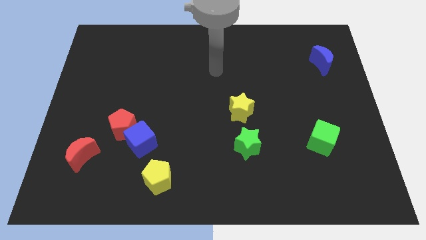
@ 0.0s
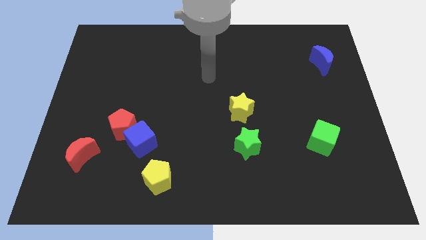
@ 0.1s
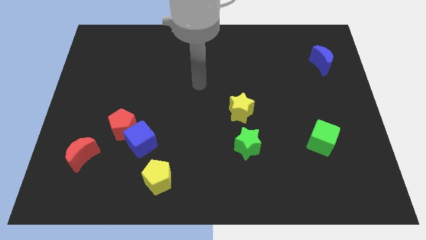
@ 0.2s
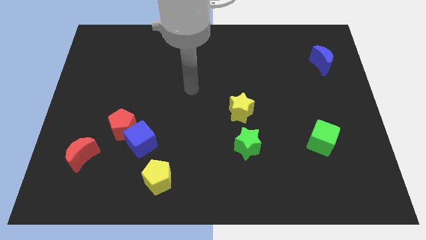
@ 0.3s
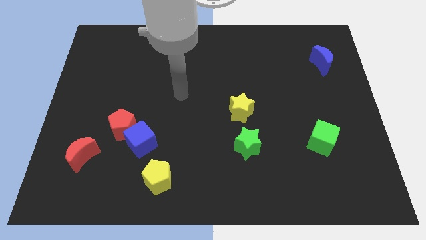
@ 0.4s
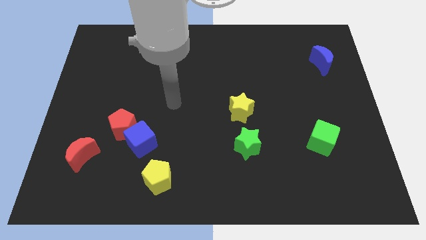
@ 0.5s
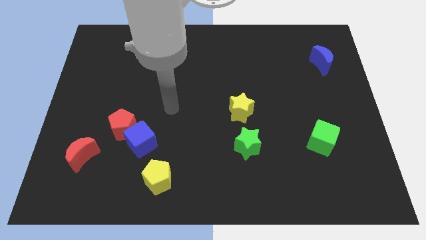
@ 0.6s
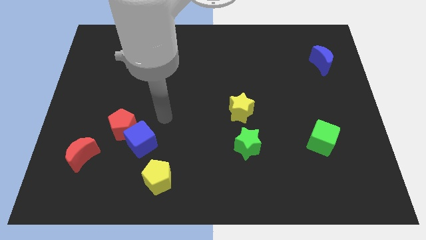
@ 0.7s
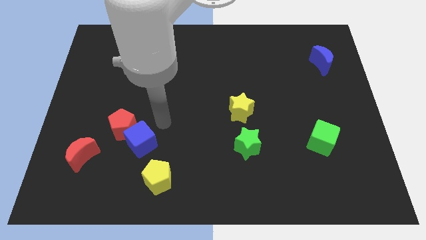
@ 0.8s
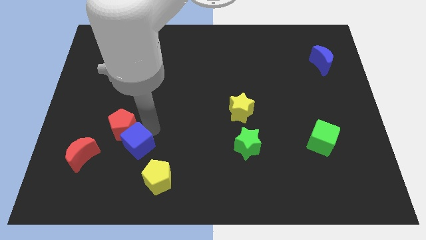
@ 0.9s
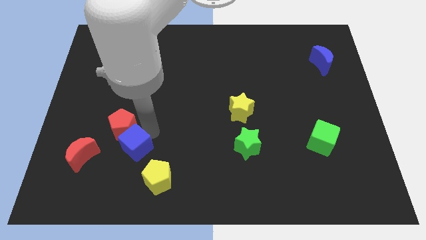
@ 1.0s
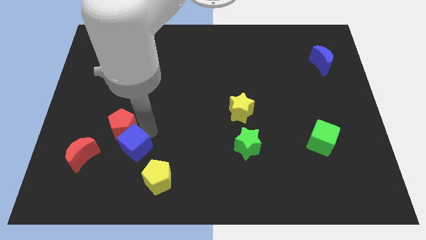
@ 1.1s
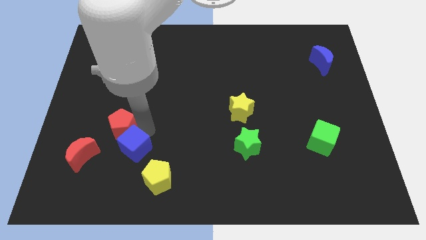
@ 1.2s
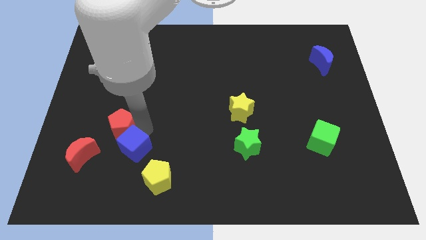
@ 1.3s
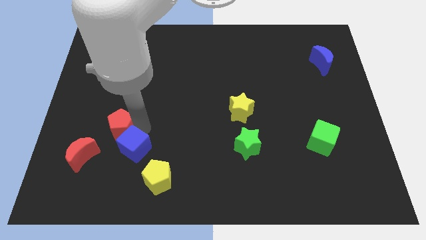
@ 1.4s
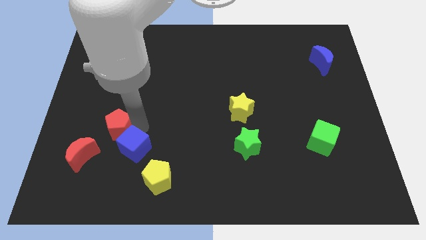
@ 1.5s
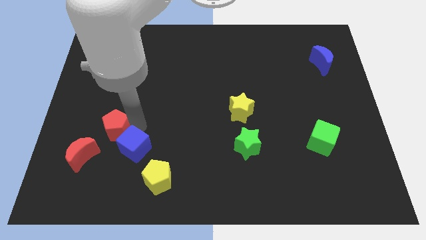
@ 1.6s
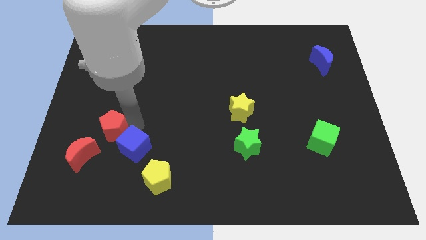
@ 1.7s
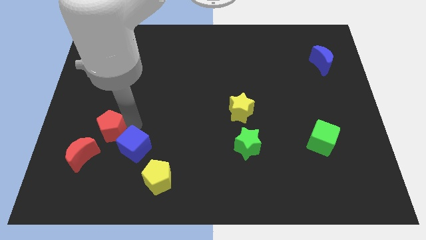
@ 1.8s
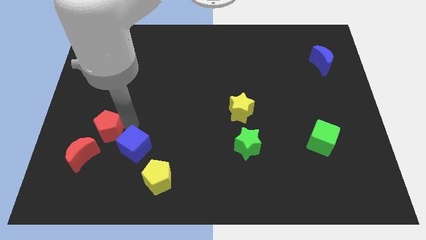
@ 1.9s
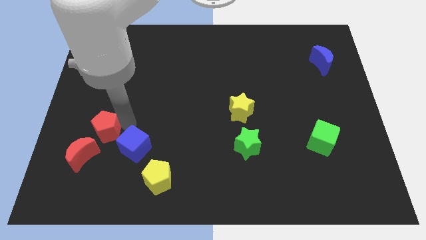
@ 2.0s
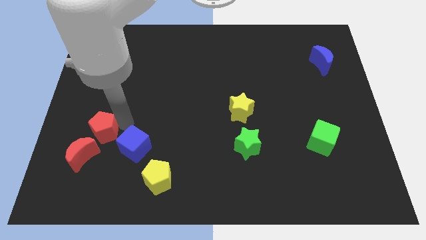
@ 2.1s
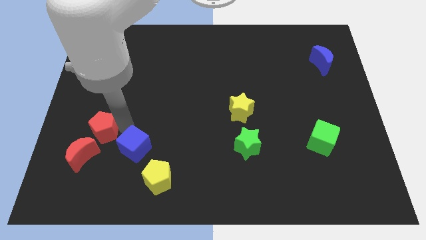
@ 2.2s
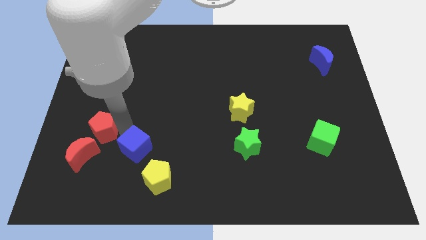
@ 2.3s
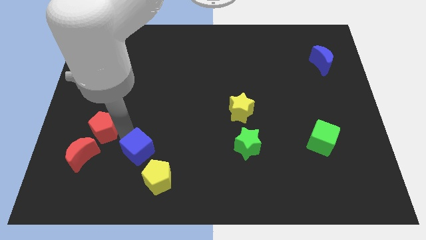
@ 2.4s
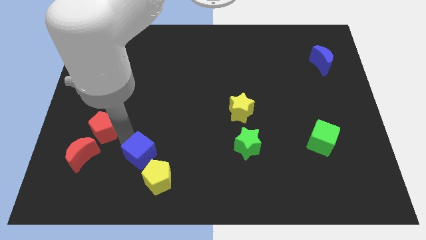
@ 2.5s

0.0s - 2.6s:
pull the red pentagon apart from the blue cube

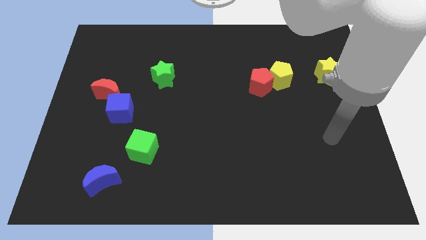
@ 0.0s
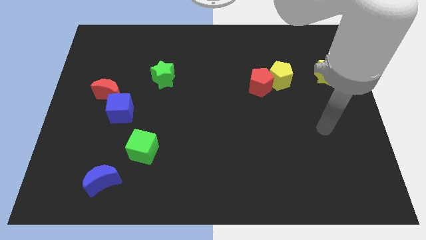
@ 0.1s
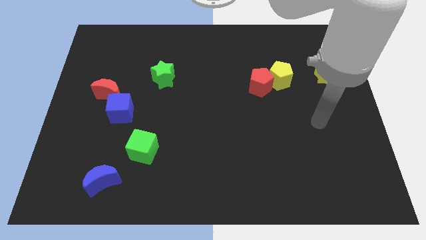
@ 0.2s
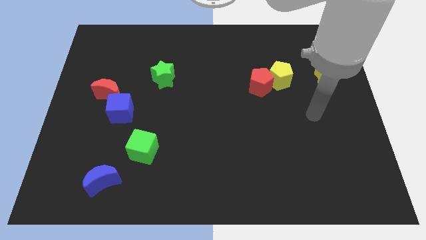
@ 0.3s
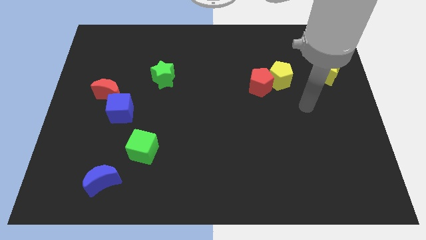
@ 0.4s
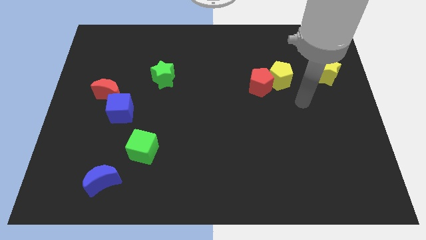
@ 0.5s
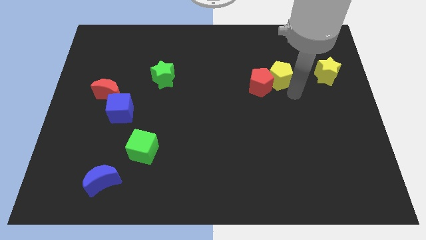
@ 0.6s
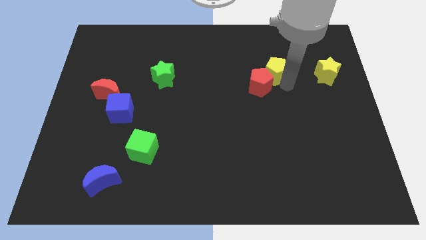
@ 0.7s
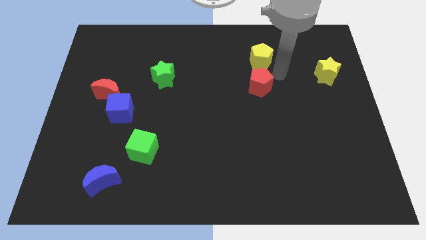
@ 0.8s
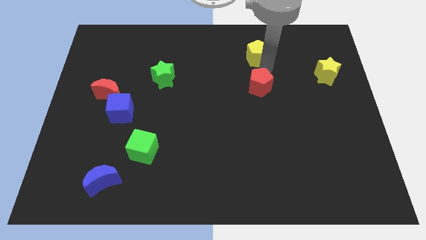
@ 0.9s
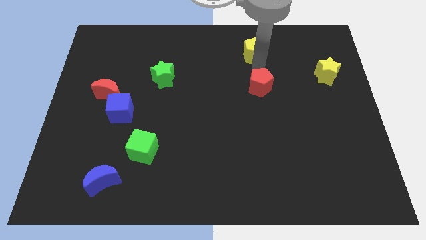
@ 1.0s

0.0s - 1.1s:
separate the red pentagon from the yellow pentagon

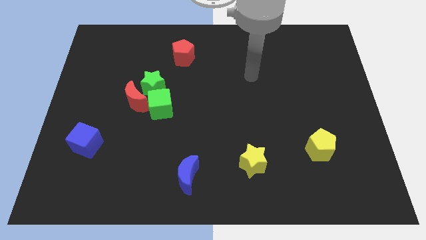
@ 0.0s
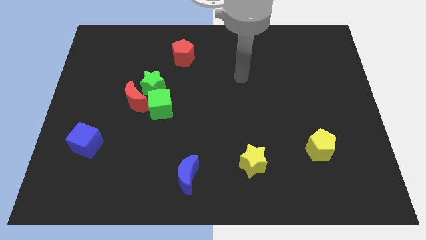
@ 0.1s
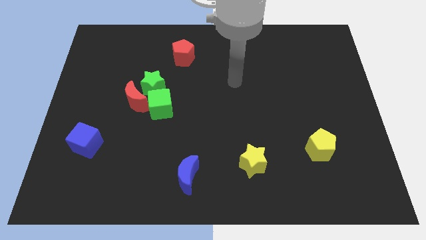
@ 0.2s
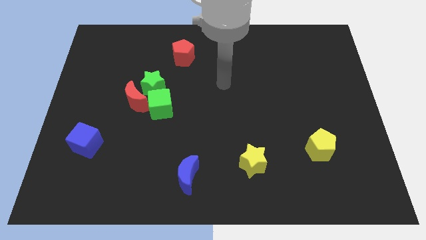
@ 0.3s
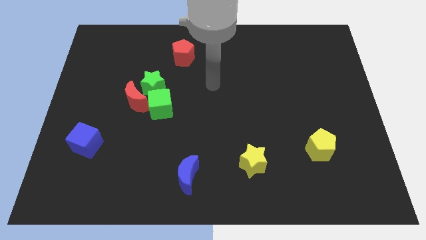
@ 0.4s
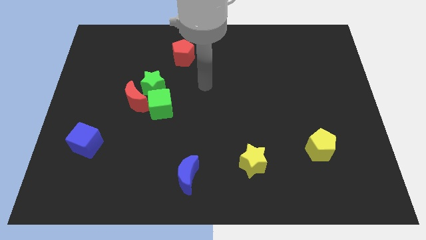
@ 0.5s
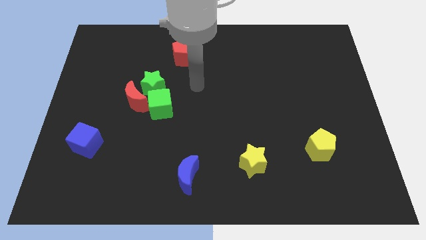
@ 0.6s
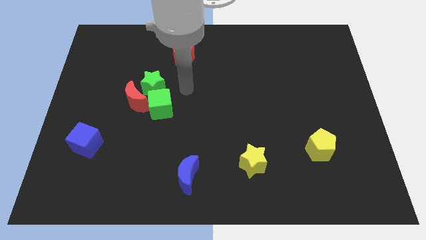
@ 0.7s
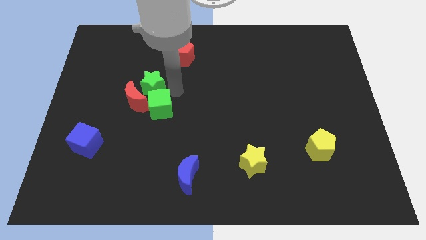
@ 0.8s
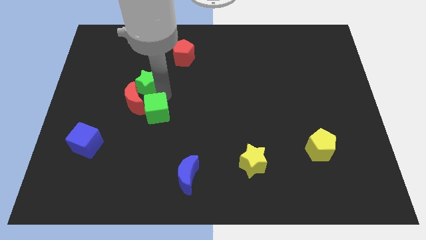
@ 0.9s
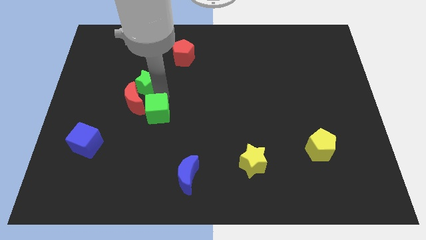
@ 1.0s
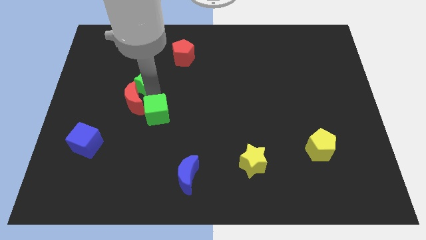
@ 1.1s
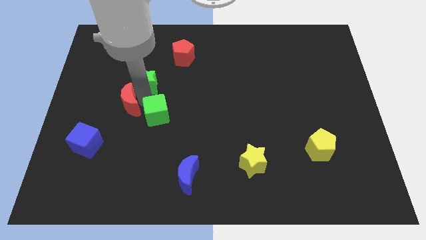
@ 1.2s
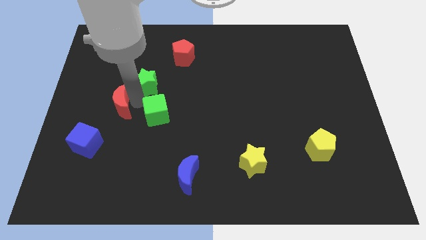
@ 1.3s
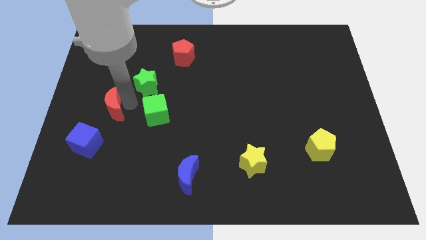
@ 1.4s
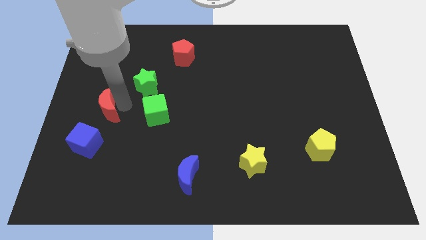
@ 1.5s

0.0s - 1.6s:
separate the red moon from the green star and green cube

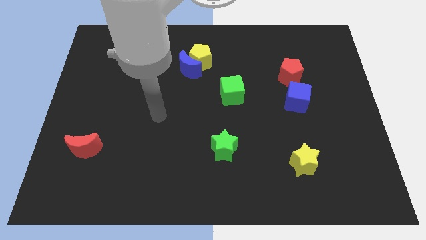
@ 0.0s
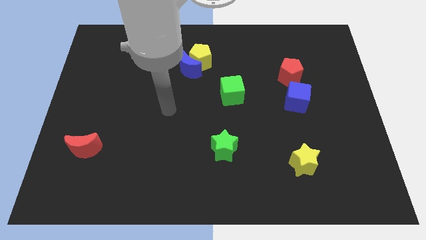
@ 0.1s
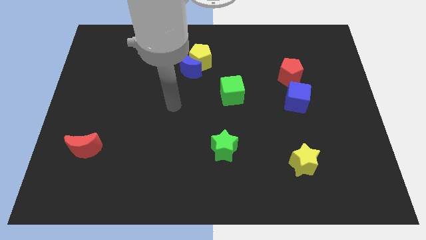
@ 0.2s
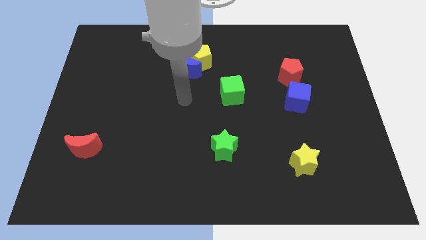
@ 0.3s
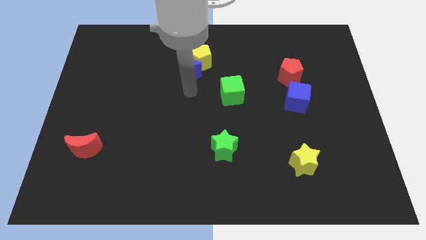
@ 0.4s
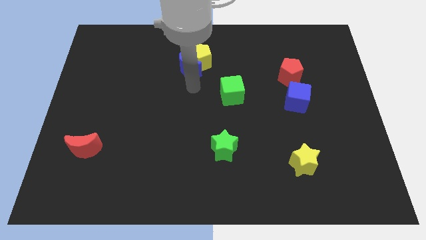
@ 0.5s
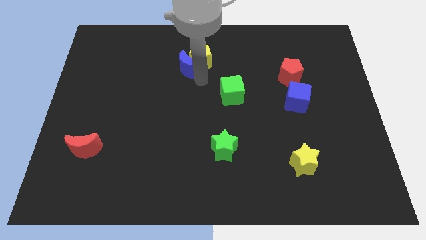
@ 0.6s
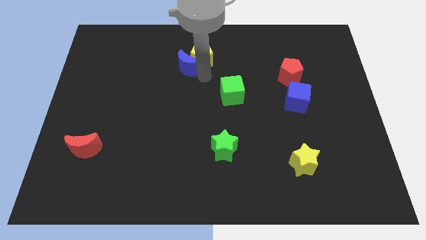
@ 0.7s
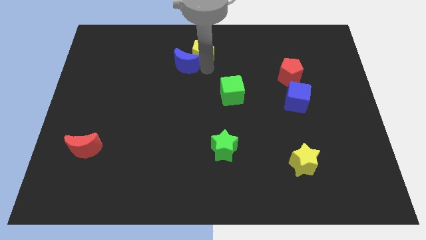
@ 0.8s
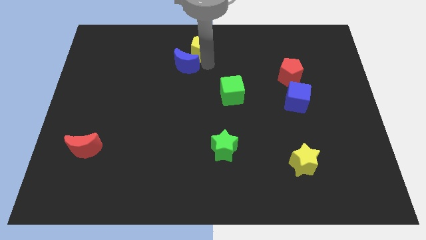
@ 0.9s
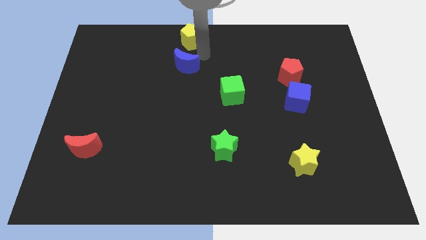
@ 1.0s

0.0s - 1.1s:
pull the blue moon apart from the yellow pentagon

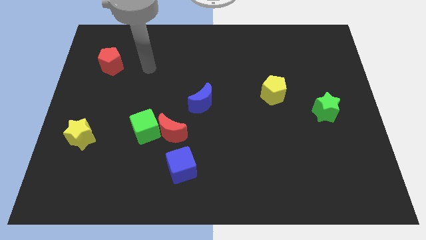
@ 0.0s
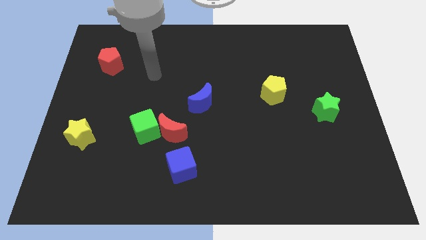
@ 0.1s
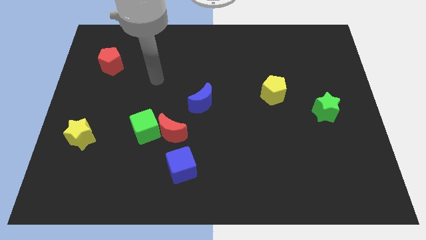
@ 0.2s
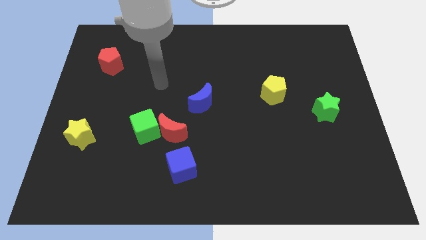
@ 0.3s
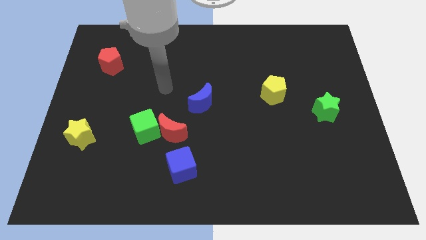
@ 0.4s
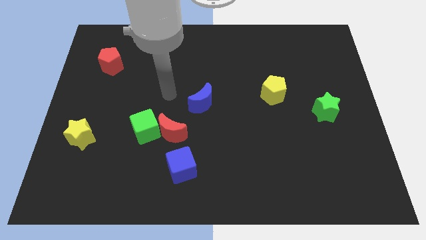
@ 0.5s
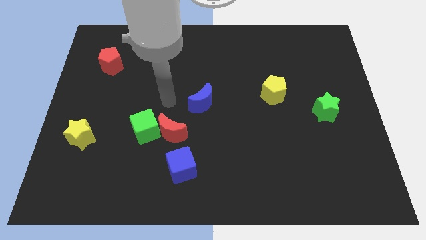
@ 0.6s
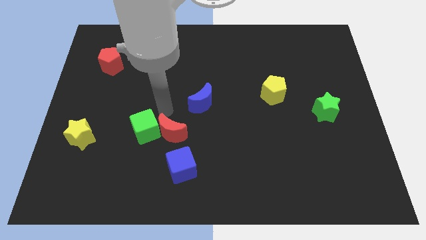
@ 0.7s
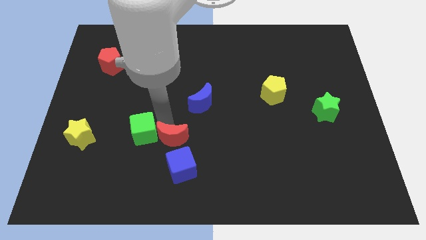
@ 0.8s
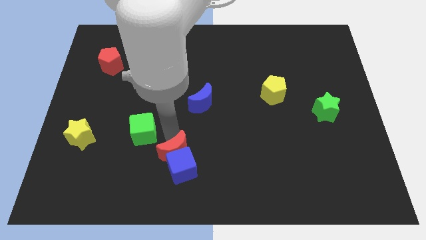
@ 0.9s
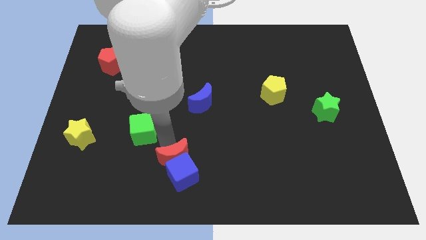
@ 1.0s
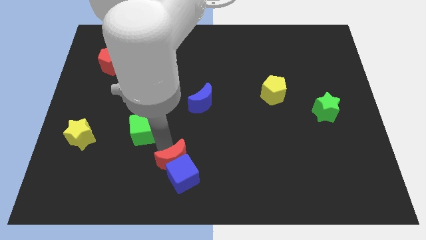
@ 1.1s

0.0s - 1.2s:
separate the green cube from the red moon

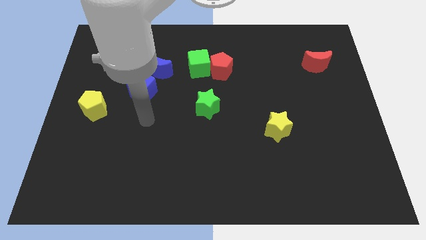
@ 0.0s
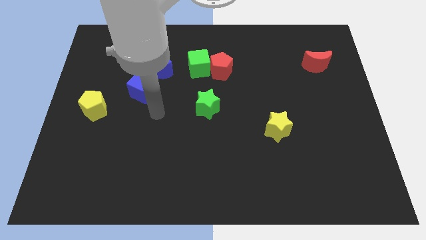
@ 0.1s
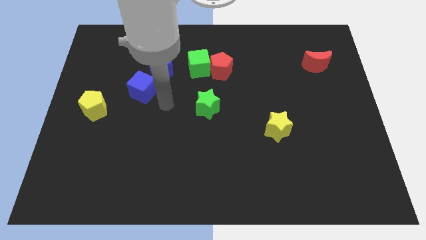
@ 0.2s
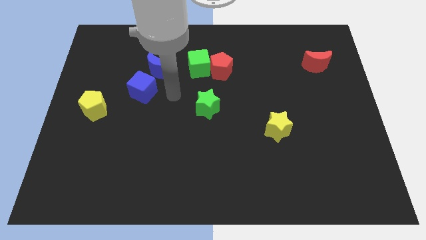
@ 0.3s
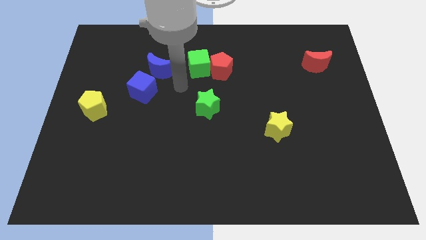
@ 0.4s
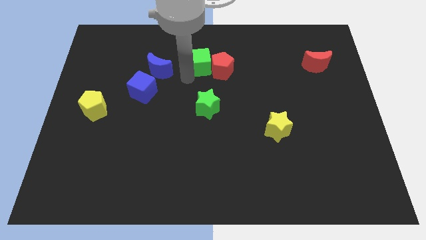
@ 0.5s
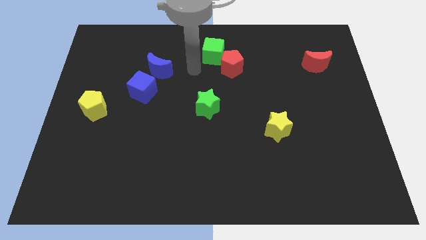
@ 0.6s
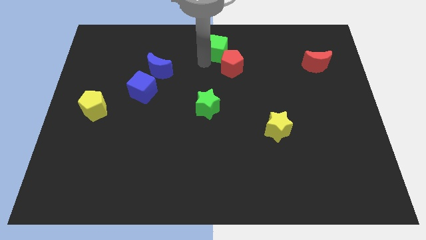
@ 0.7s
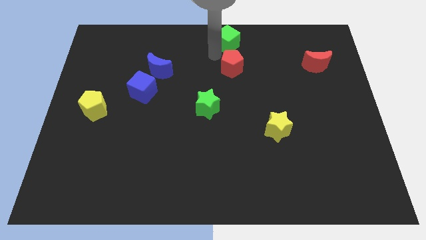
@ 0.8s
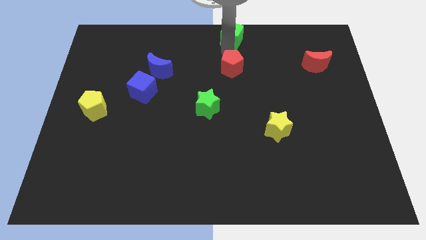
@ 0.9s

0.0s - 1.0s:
separate the red pentagon from the green cube

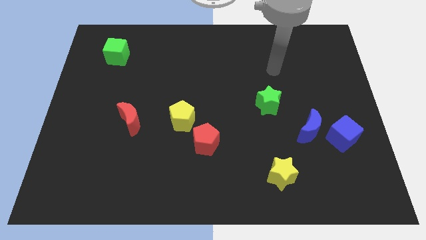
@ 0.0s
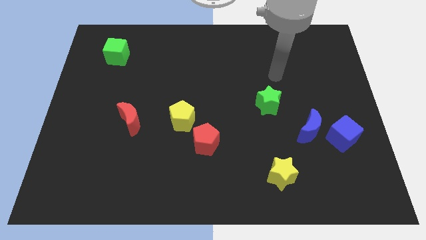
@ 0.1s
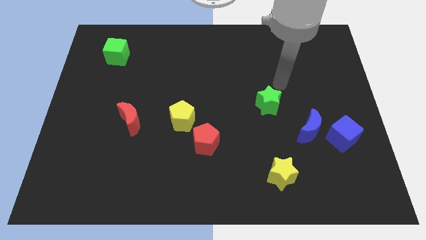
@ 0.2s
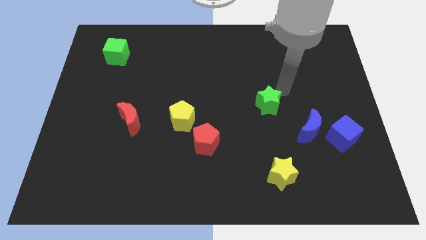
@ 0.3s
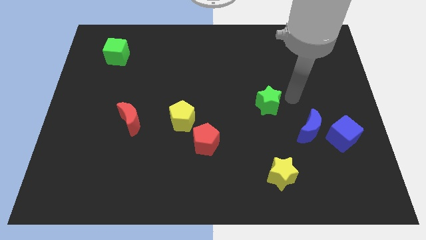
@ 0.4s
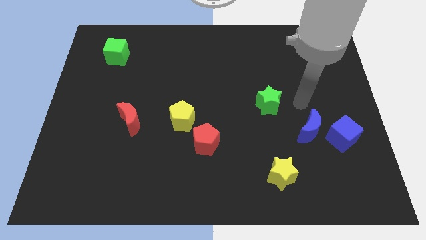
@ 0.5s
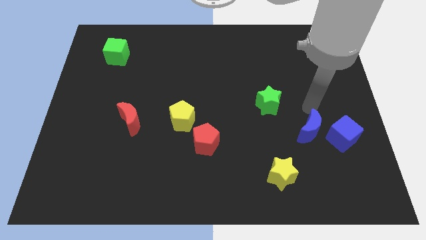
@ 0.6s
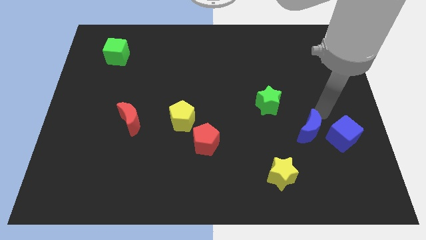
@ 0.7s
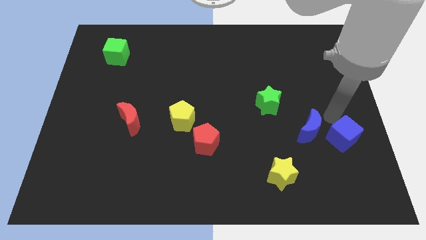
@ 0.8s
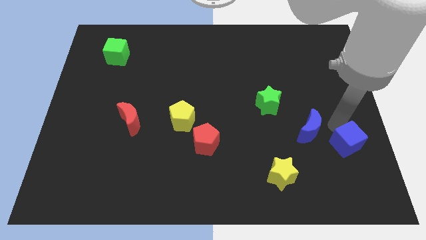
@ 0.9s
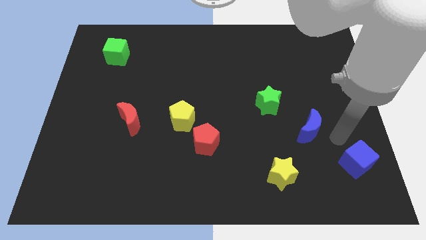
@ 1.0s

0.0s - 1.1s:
move the blue moon away from the blue cube
